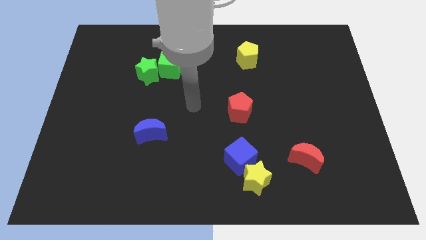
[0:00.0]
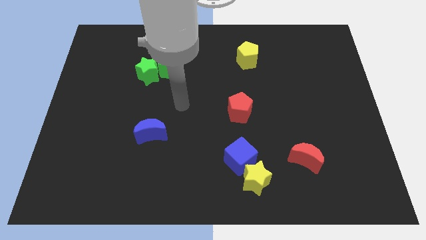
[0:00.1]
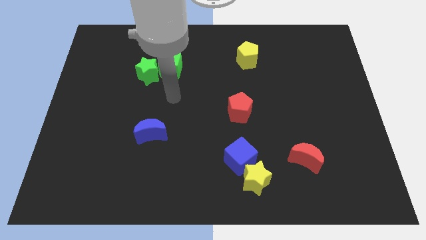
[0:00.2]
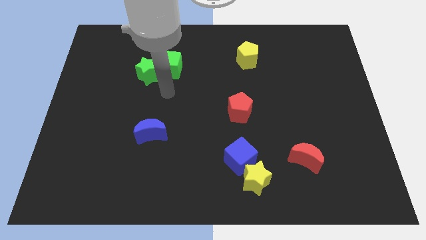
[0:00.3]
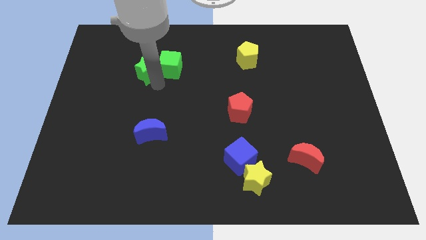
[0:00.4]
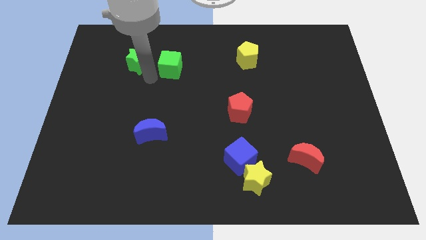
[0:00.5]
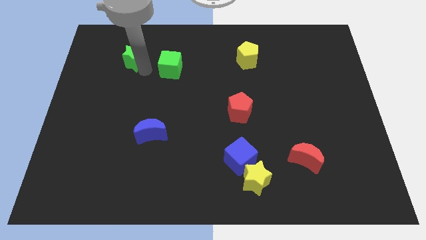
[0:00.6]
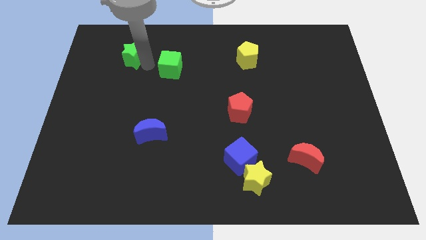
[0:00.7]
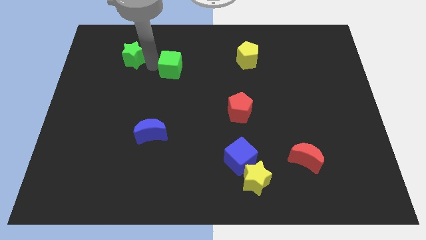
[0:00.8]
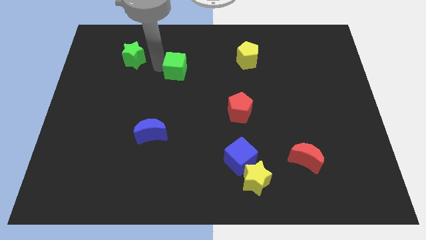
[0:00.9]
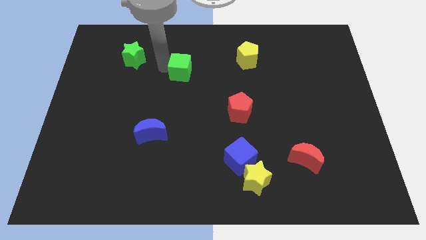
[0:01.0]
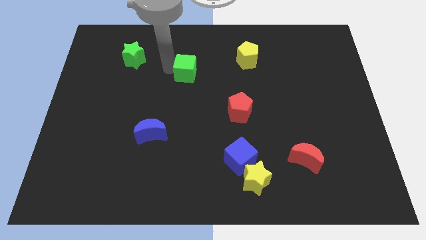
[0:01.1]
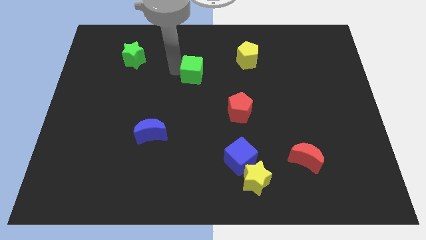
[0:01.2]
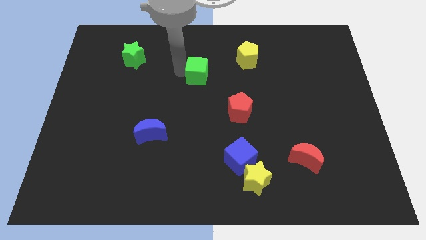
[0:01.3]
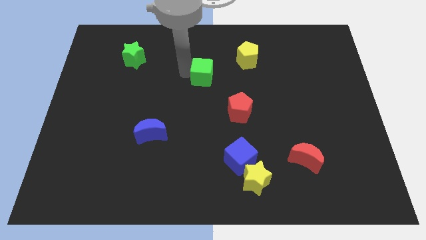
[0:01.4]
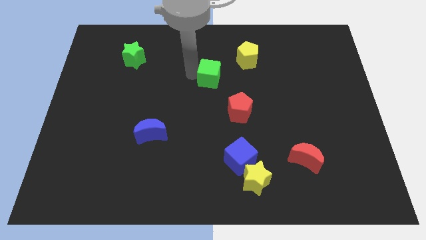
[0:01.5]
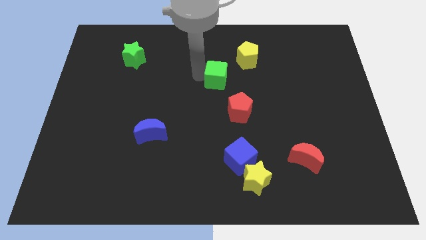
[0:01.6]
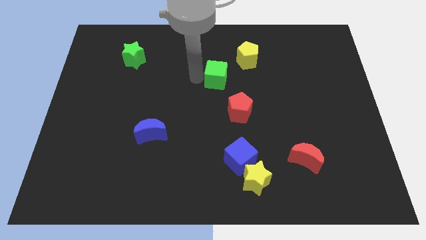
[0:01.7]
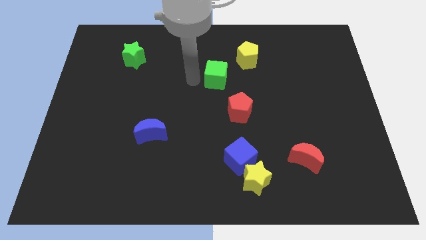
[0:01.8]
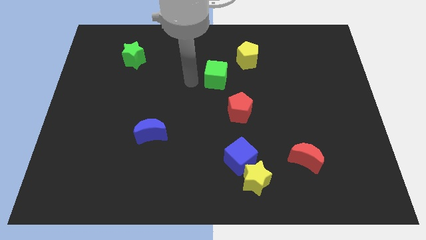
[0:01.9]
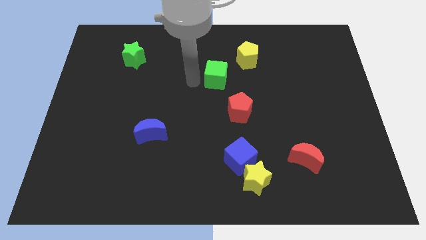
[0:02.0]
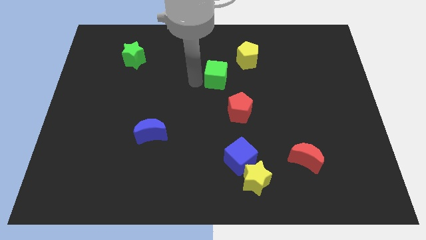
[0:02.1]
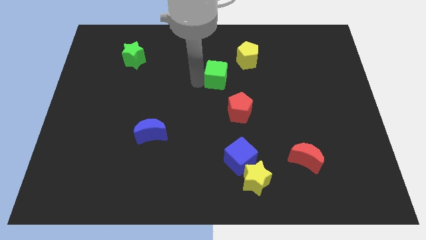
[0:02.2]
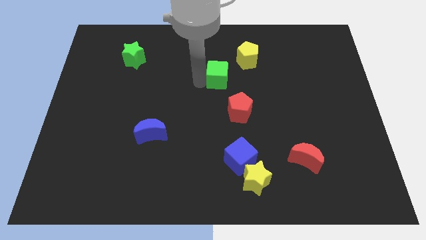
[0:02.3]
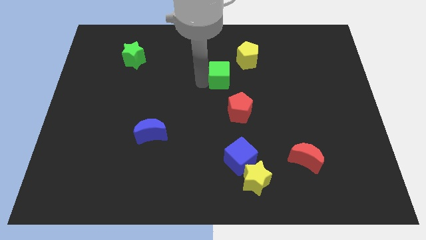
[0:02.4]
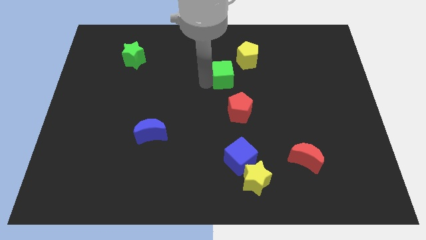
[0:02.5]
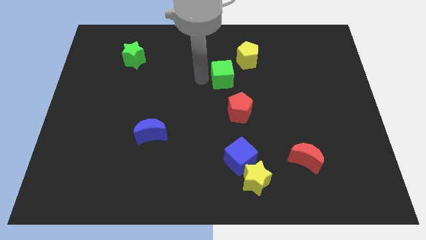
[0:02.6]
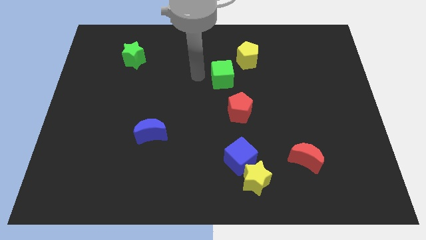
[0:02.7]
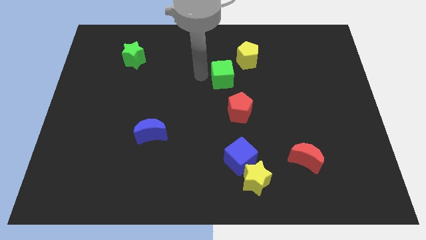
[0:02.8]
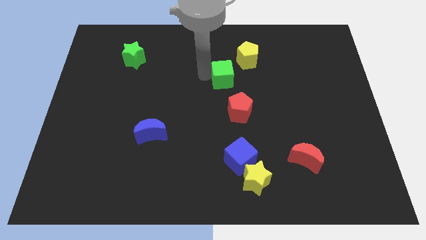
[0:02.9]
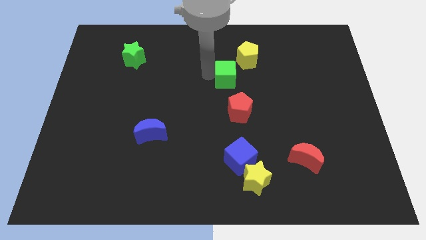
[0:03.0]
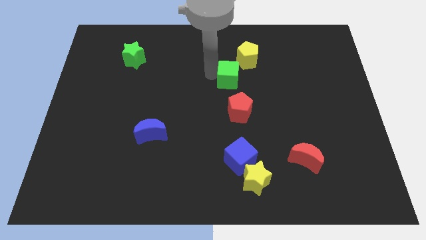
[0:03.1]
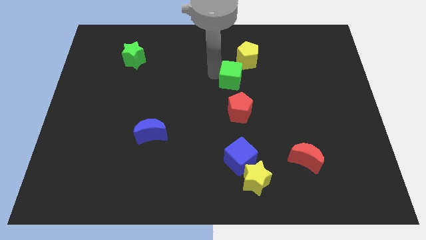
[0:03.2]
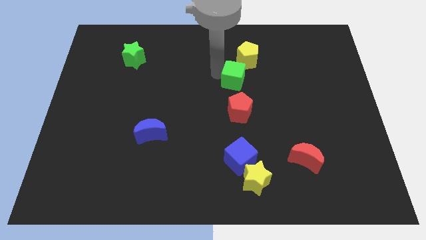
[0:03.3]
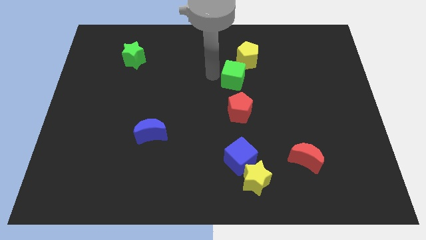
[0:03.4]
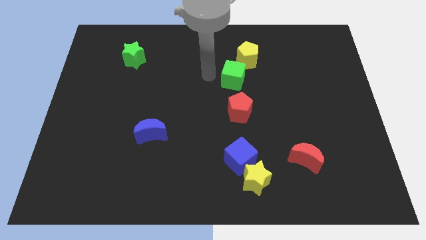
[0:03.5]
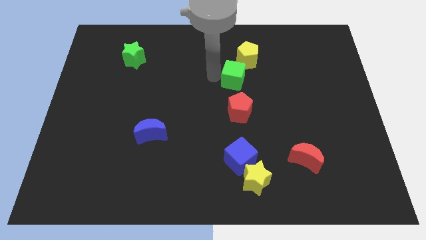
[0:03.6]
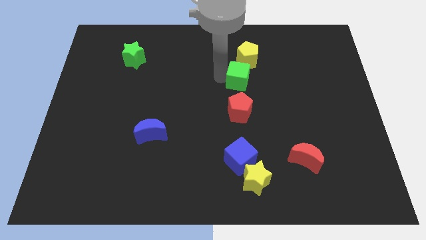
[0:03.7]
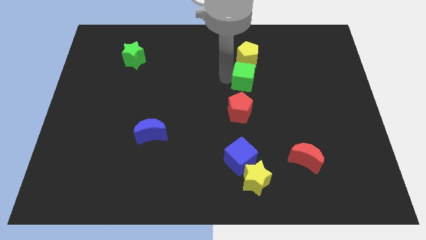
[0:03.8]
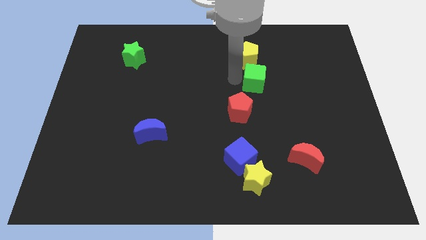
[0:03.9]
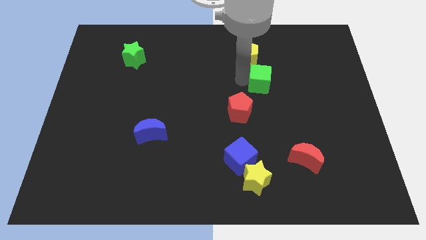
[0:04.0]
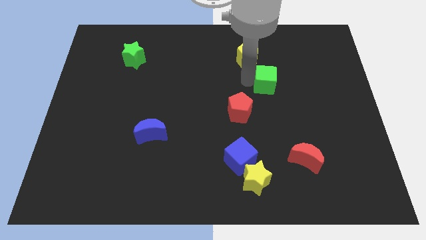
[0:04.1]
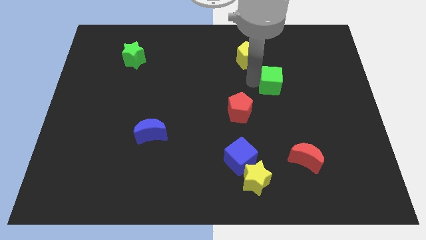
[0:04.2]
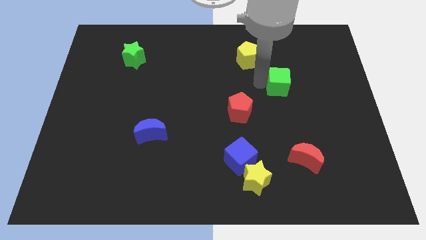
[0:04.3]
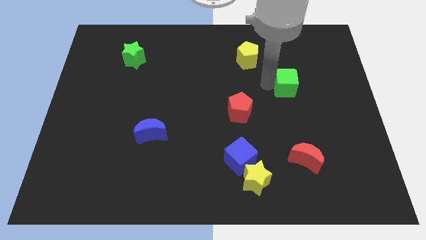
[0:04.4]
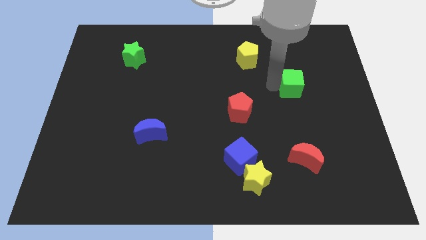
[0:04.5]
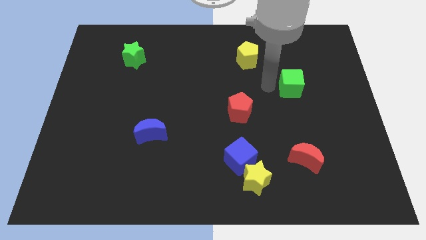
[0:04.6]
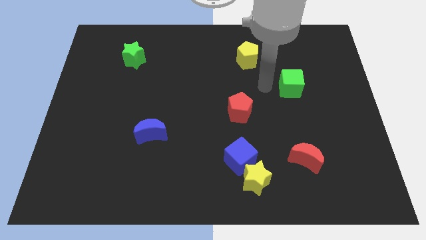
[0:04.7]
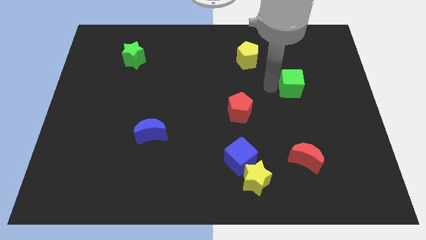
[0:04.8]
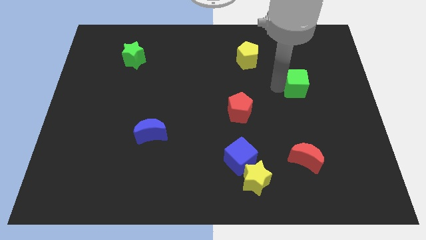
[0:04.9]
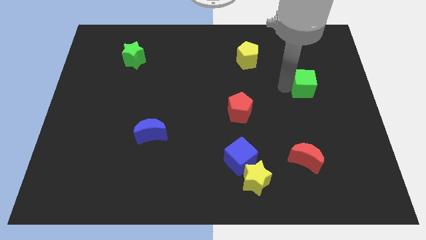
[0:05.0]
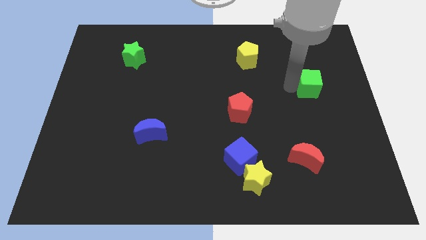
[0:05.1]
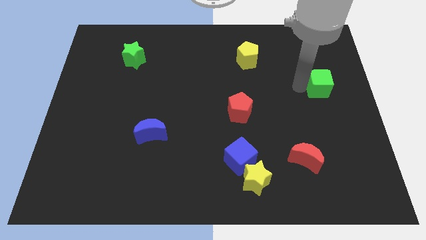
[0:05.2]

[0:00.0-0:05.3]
push the green cube to the center right

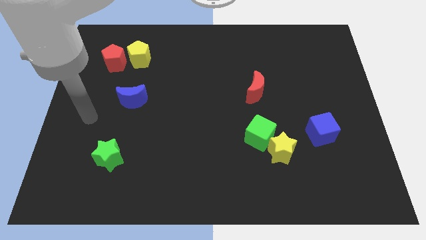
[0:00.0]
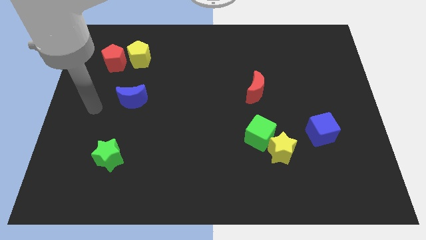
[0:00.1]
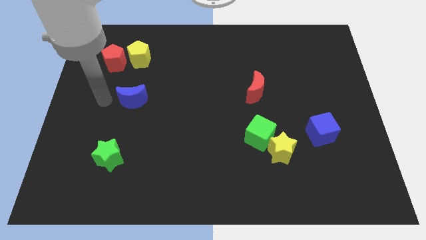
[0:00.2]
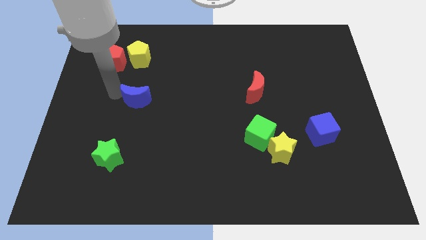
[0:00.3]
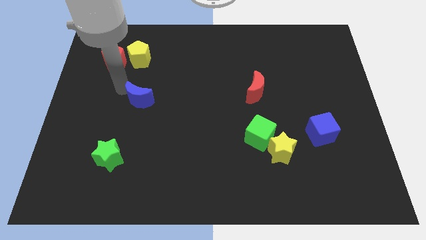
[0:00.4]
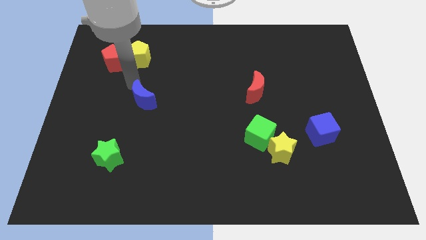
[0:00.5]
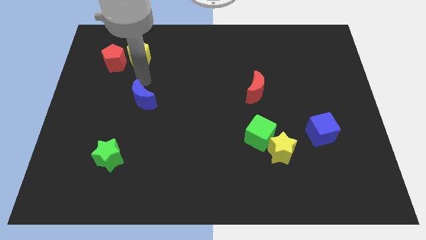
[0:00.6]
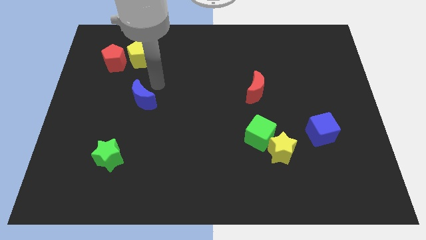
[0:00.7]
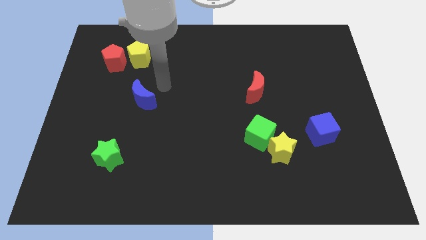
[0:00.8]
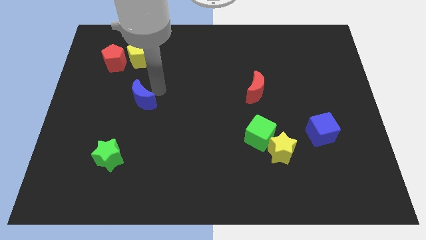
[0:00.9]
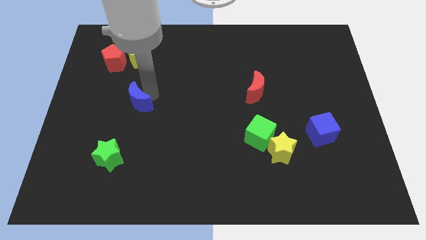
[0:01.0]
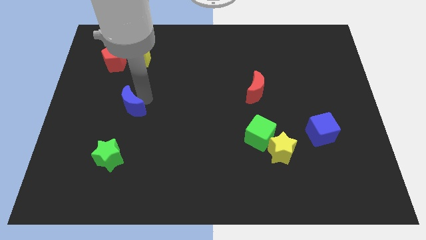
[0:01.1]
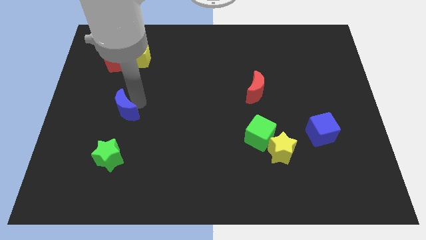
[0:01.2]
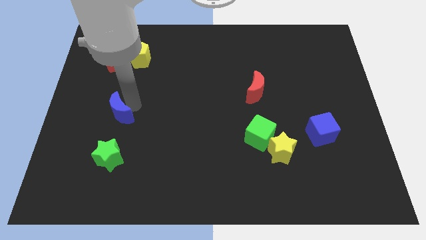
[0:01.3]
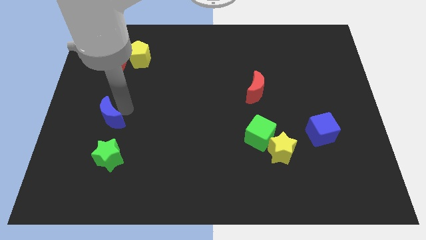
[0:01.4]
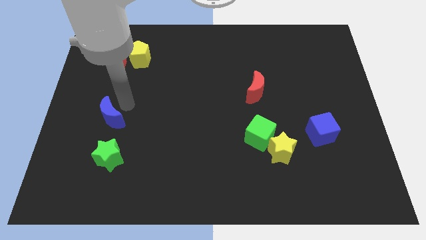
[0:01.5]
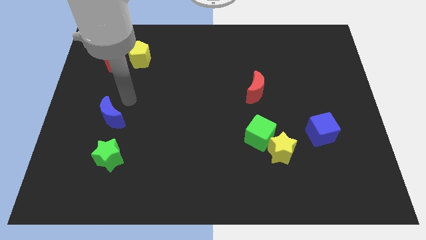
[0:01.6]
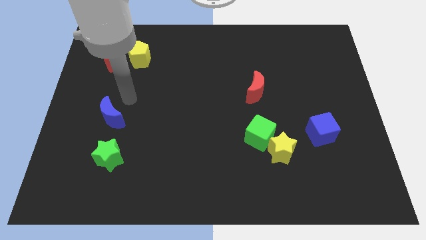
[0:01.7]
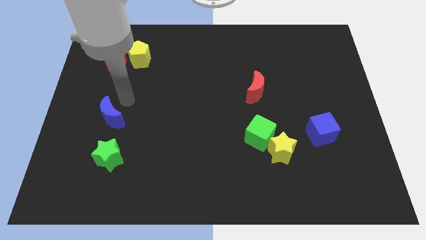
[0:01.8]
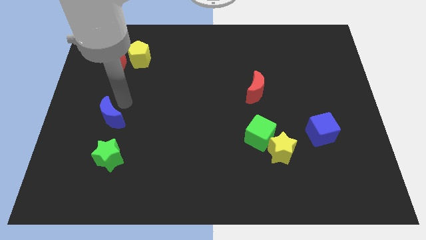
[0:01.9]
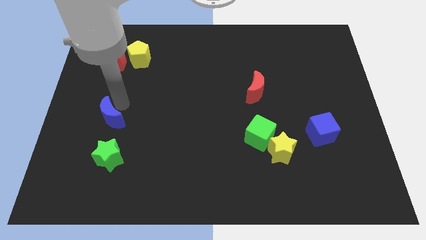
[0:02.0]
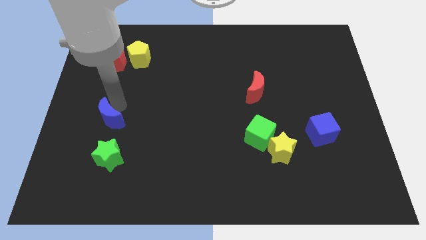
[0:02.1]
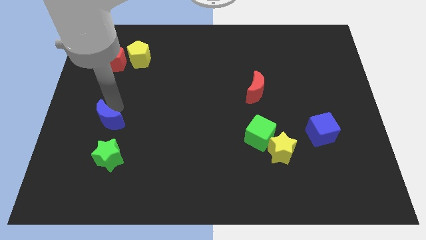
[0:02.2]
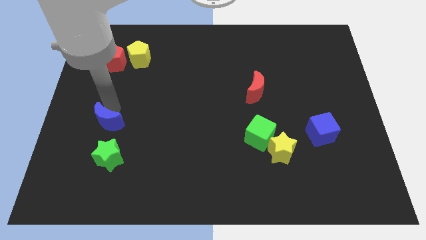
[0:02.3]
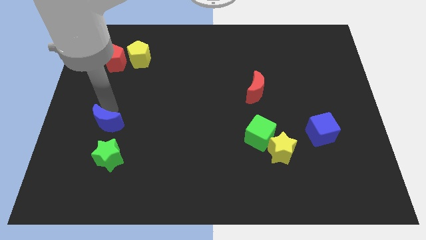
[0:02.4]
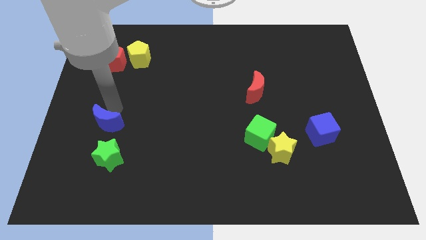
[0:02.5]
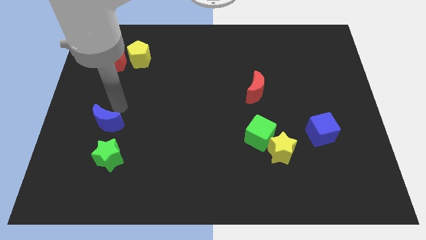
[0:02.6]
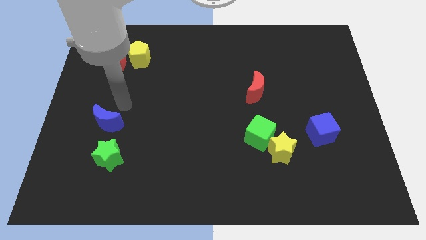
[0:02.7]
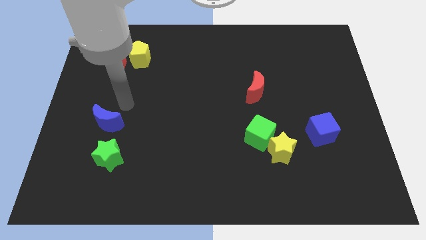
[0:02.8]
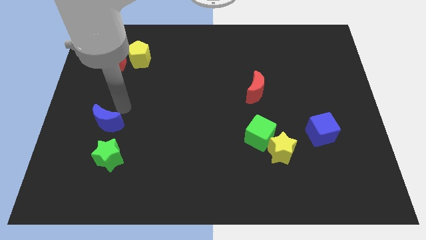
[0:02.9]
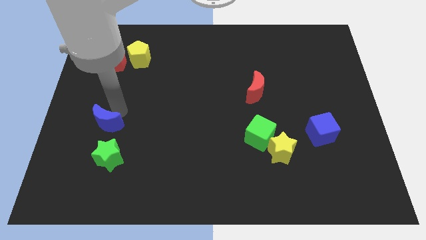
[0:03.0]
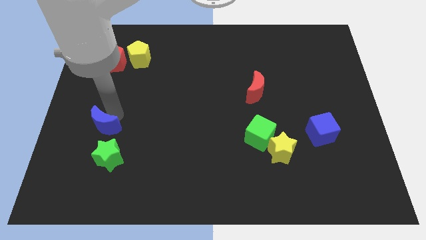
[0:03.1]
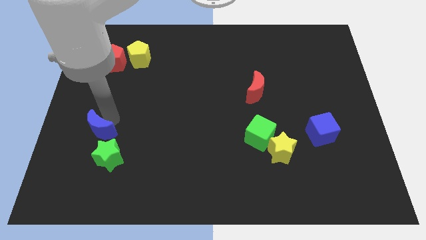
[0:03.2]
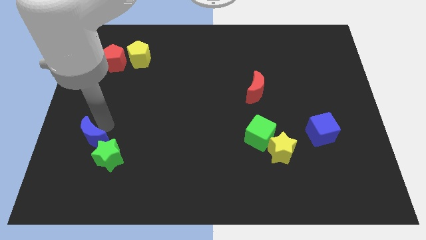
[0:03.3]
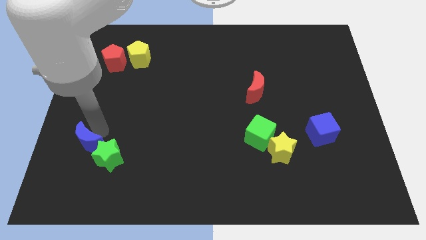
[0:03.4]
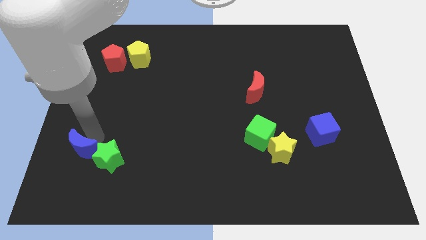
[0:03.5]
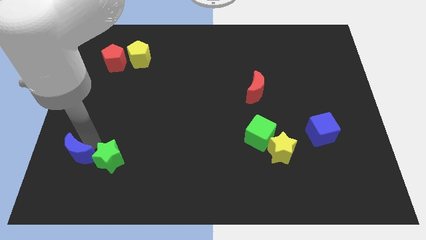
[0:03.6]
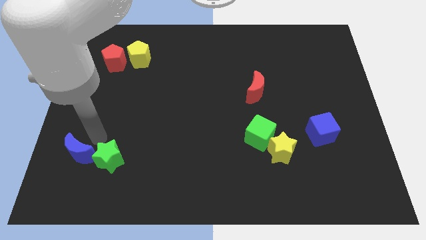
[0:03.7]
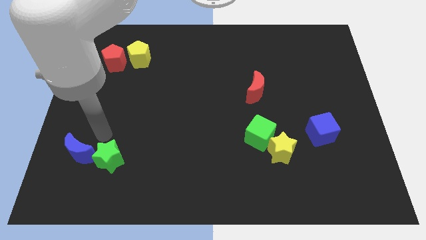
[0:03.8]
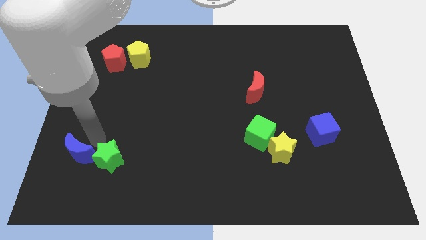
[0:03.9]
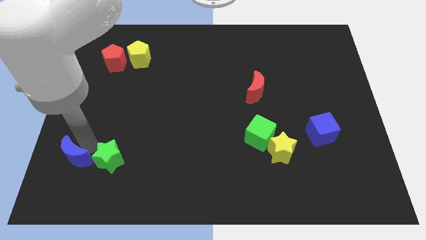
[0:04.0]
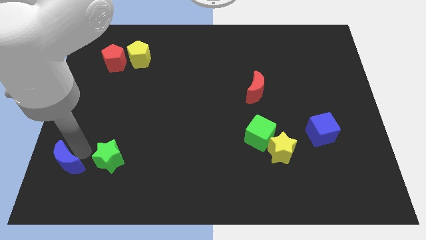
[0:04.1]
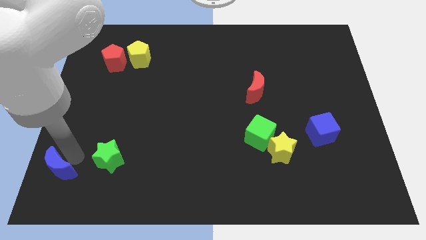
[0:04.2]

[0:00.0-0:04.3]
move the blue moon to the bottom left corner
